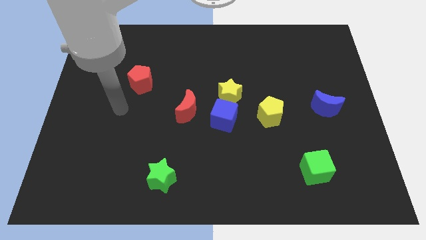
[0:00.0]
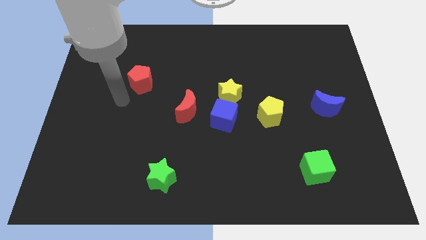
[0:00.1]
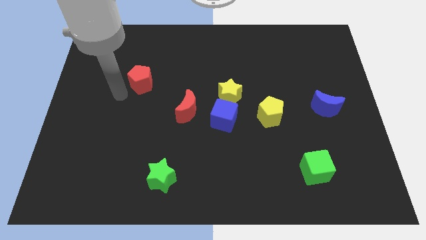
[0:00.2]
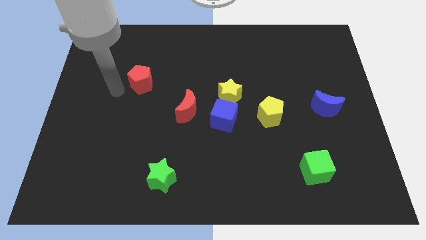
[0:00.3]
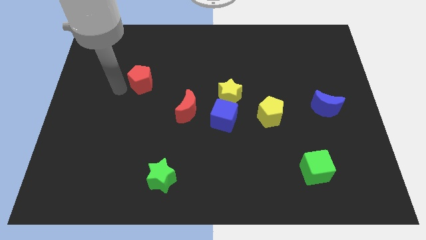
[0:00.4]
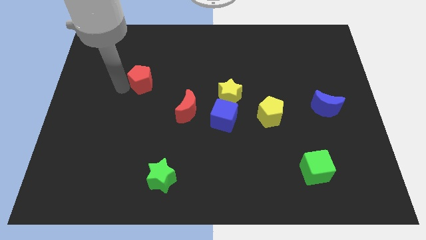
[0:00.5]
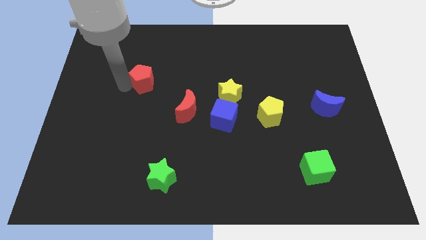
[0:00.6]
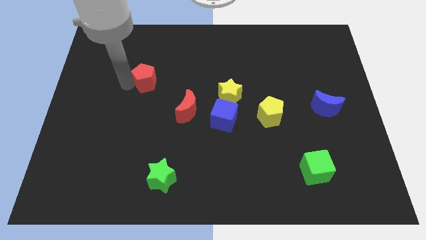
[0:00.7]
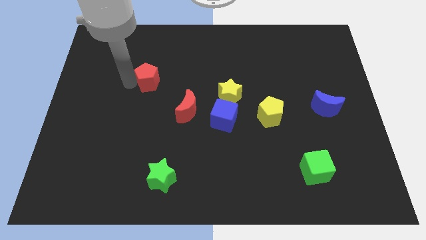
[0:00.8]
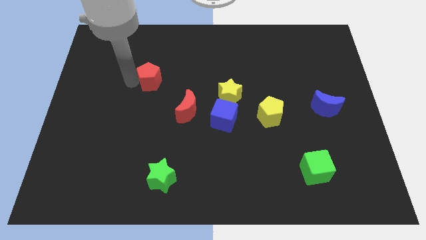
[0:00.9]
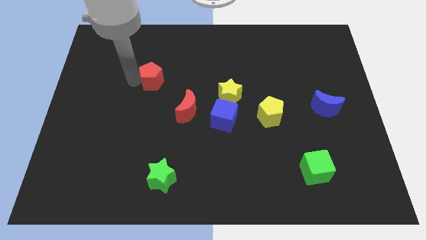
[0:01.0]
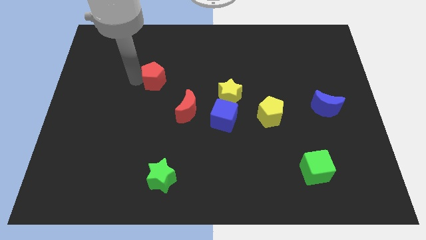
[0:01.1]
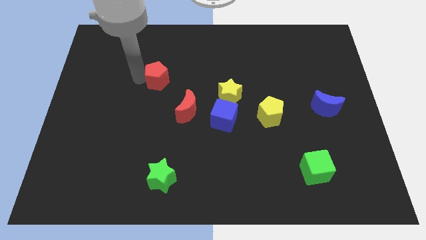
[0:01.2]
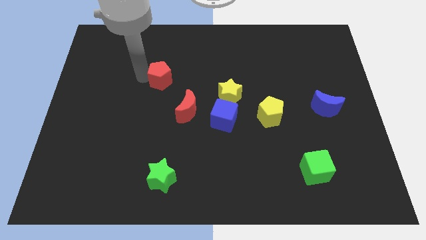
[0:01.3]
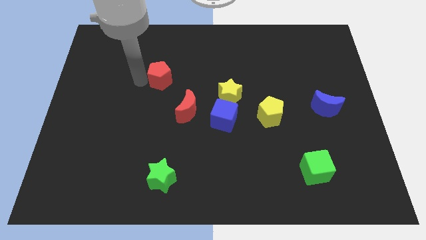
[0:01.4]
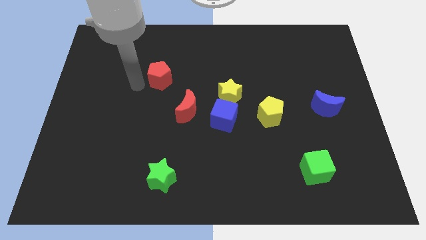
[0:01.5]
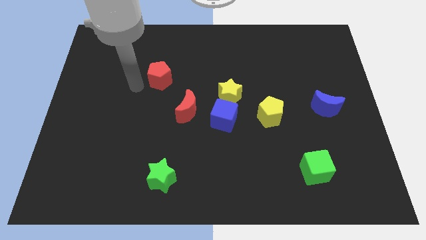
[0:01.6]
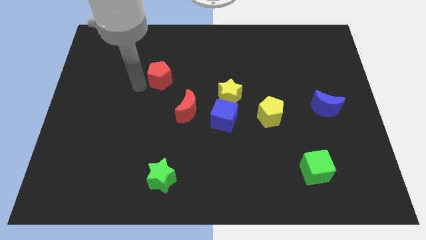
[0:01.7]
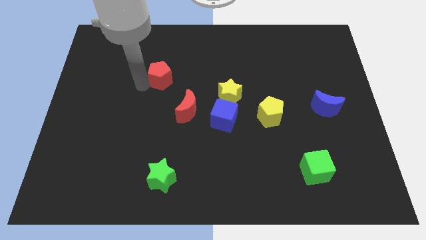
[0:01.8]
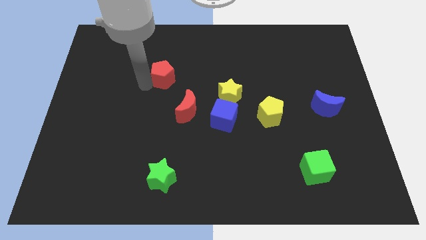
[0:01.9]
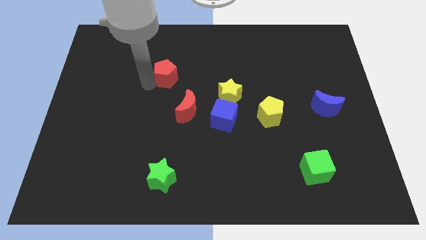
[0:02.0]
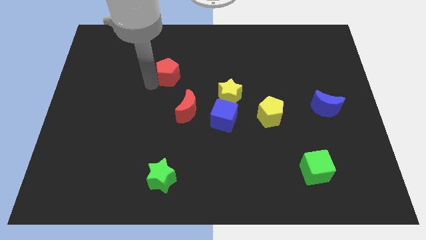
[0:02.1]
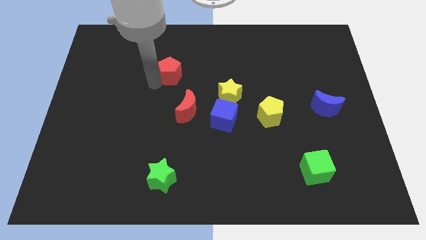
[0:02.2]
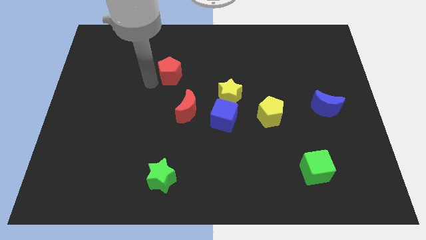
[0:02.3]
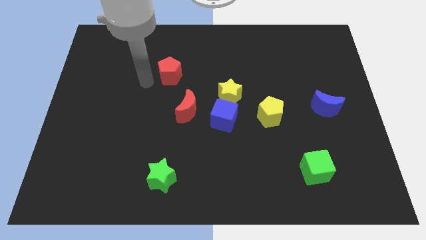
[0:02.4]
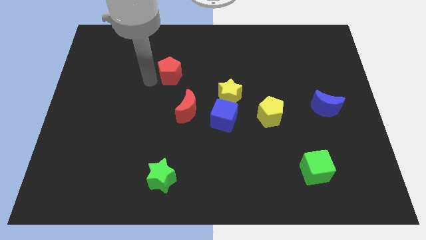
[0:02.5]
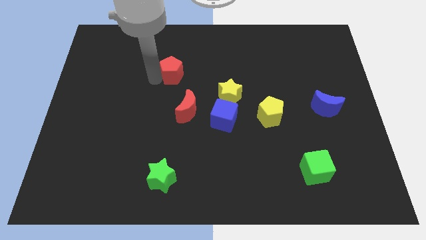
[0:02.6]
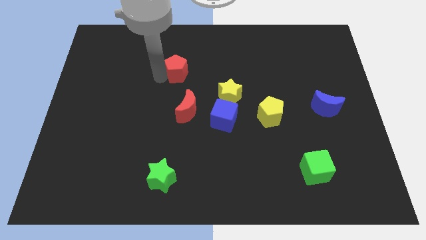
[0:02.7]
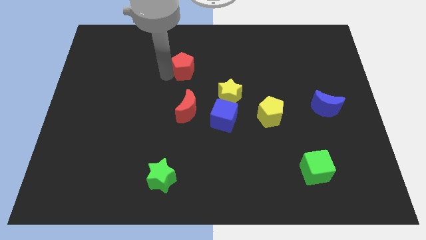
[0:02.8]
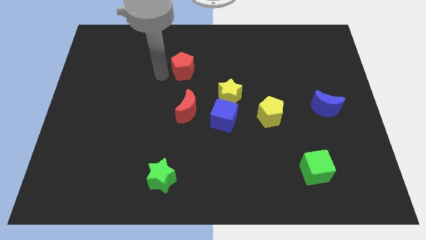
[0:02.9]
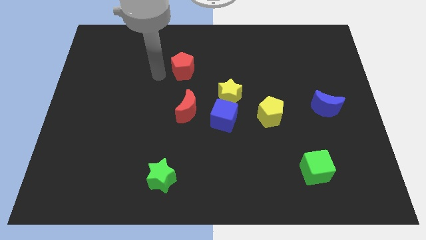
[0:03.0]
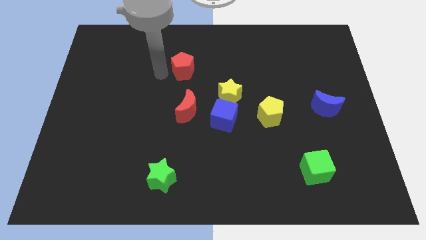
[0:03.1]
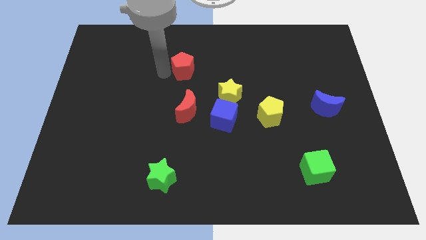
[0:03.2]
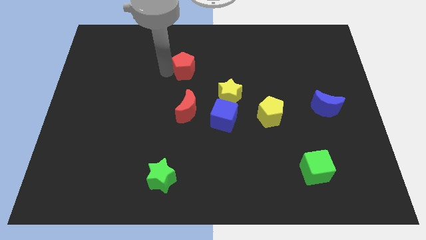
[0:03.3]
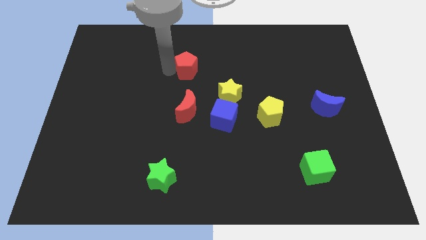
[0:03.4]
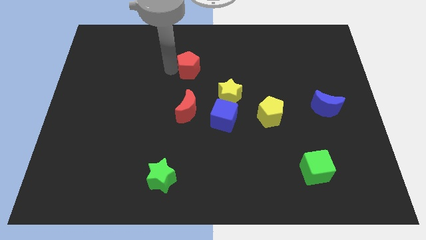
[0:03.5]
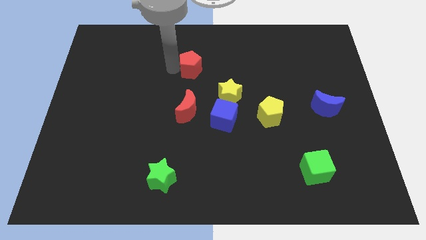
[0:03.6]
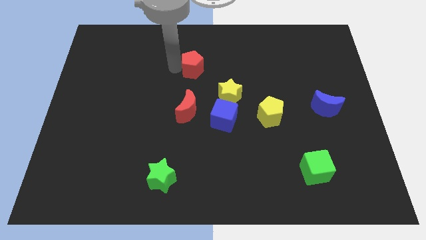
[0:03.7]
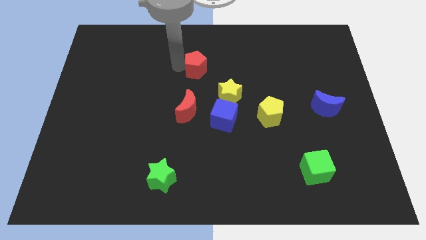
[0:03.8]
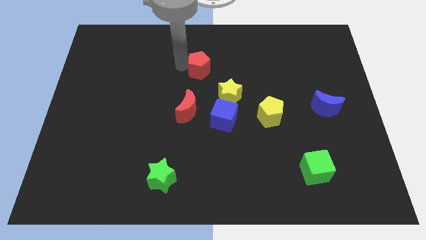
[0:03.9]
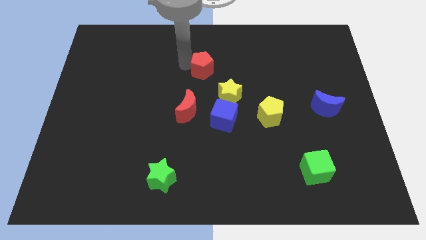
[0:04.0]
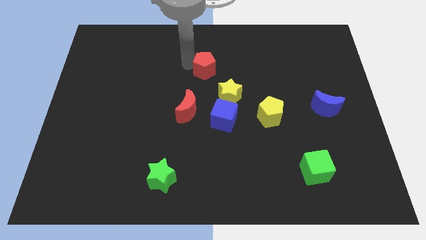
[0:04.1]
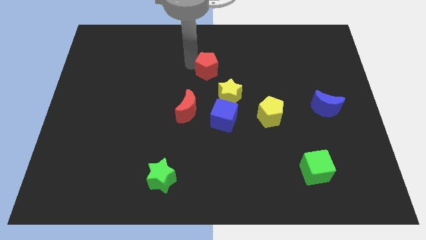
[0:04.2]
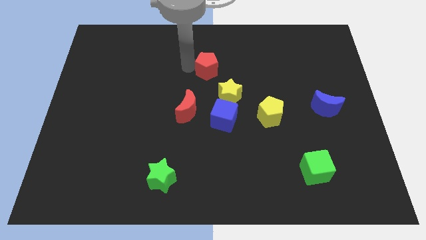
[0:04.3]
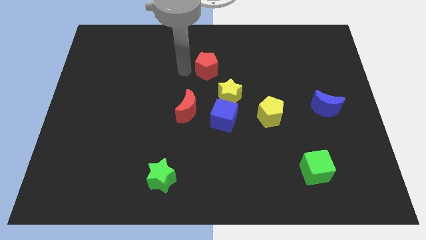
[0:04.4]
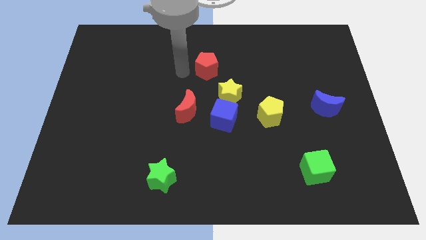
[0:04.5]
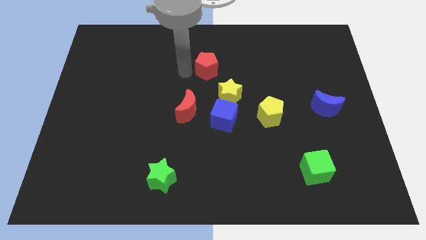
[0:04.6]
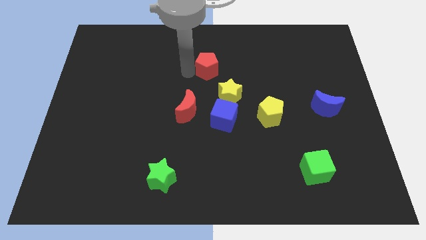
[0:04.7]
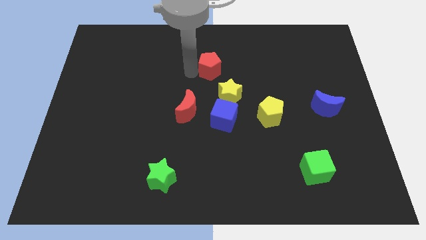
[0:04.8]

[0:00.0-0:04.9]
slide the red pentagon to the top of the yellow star

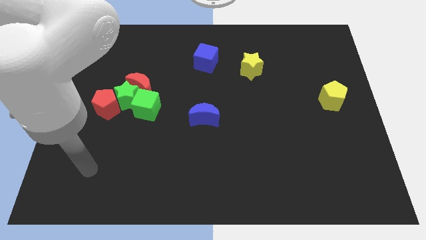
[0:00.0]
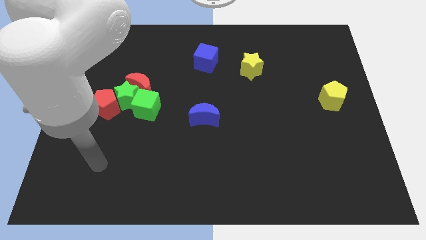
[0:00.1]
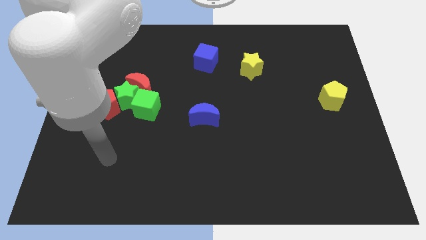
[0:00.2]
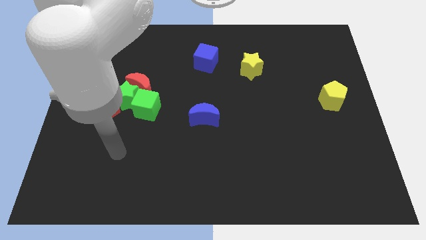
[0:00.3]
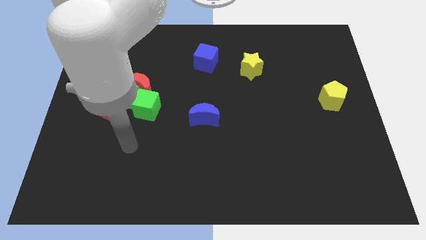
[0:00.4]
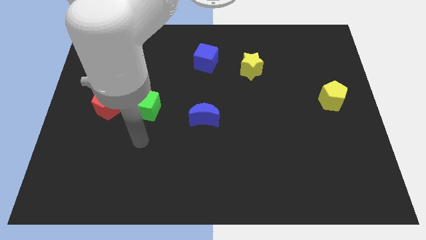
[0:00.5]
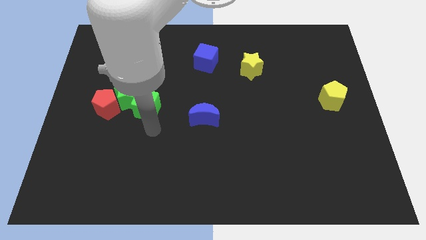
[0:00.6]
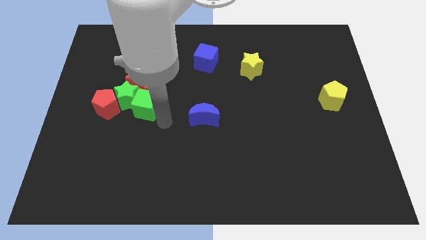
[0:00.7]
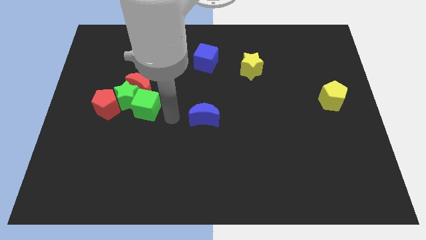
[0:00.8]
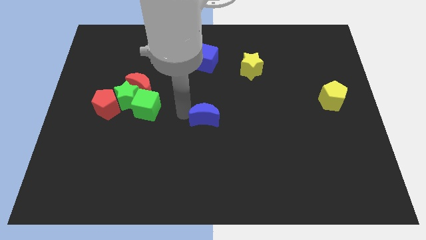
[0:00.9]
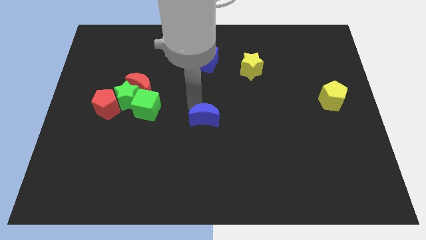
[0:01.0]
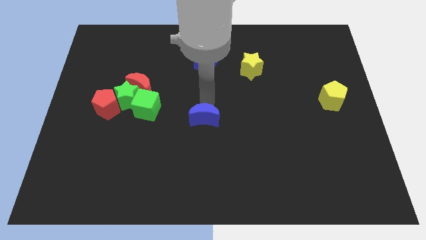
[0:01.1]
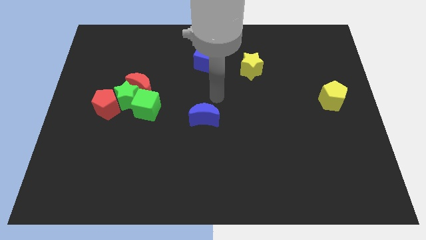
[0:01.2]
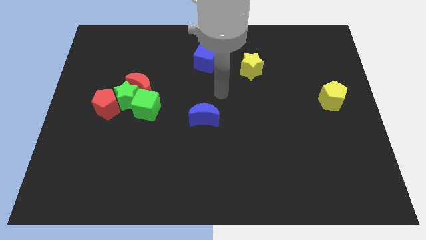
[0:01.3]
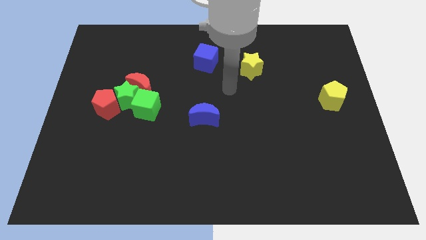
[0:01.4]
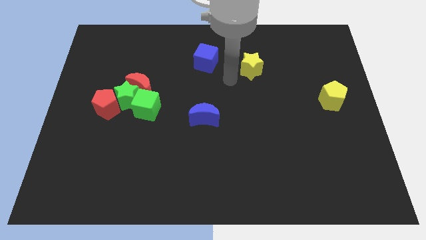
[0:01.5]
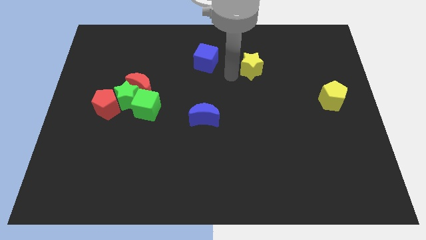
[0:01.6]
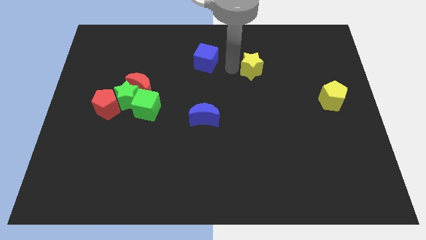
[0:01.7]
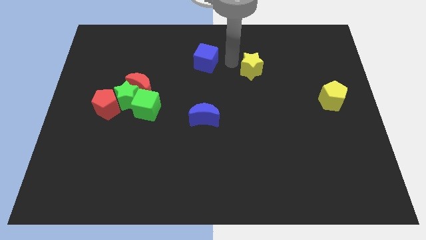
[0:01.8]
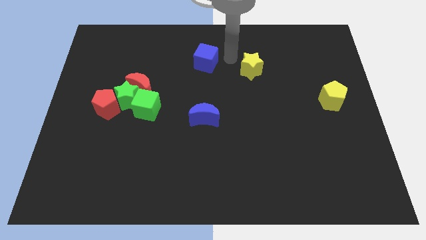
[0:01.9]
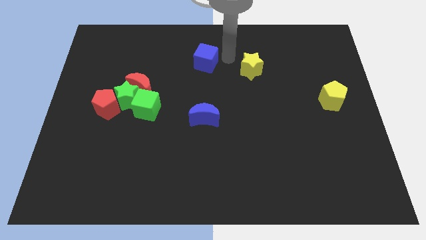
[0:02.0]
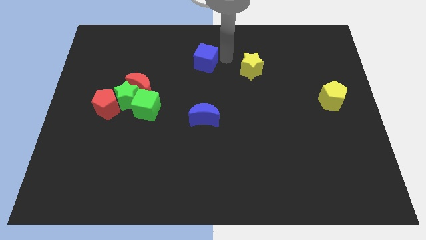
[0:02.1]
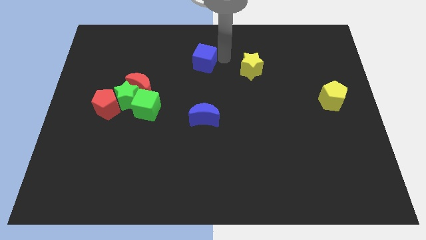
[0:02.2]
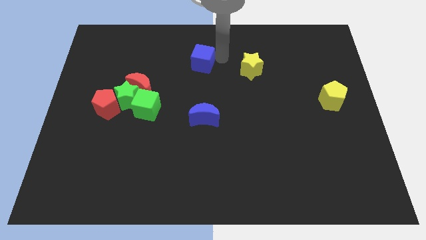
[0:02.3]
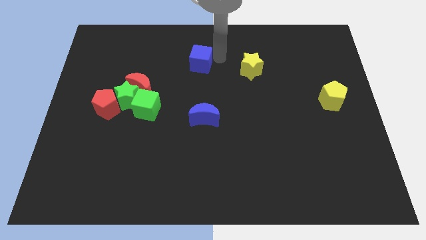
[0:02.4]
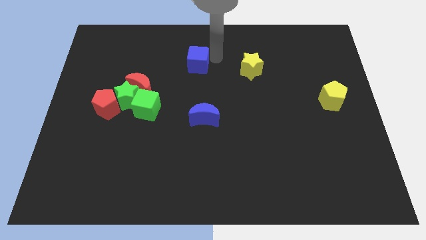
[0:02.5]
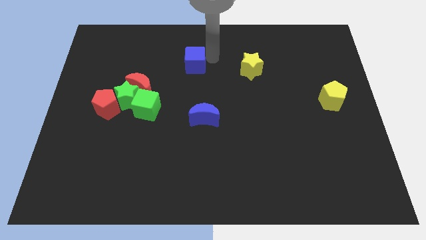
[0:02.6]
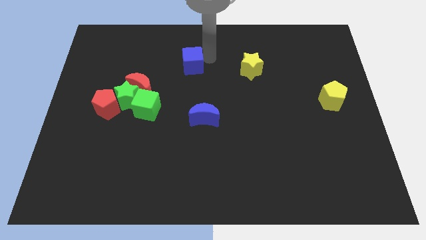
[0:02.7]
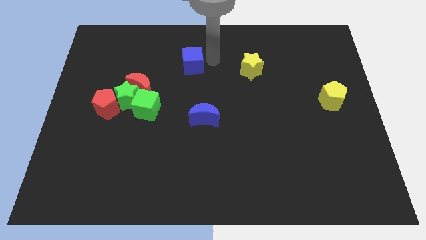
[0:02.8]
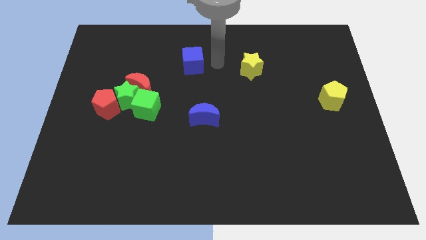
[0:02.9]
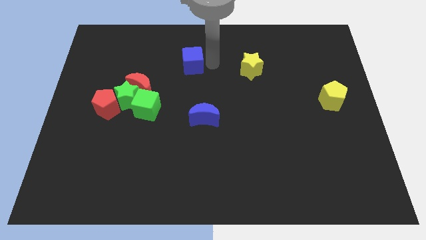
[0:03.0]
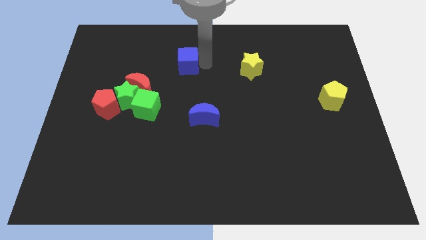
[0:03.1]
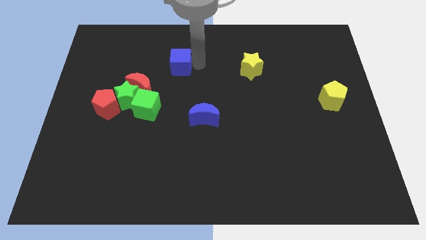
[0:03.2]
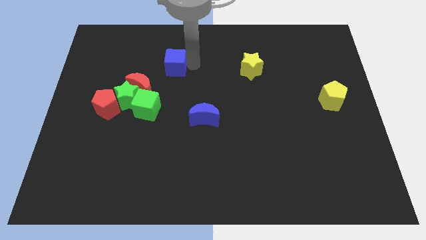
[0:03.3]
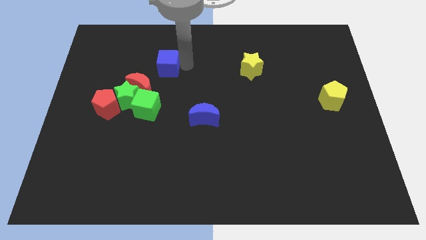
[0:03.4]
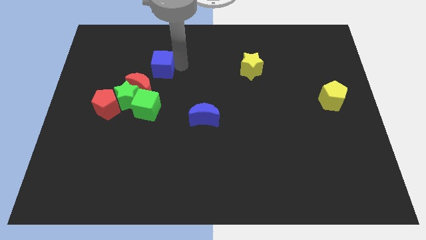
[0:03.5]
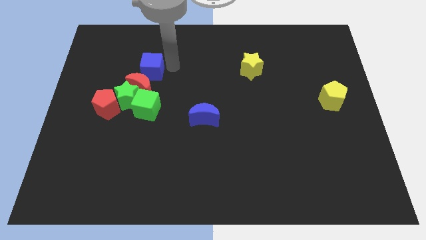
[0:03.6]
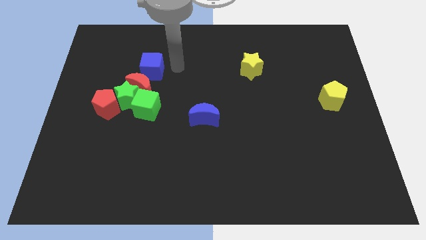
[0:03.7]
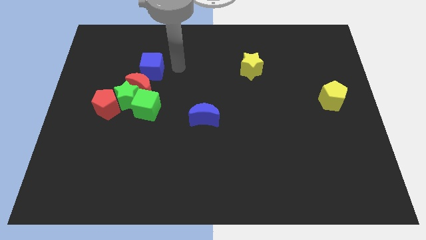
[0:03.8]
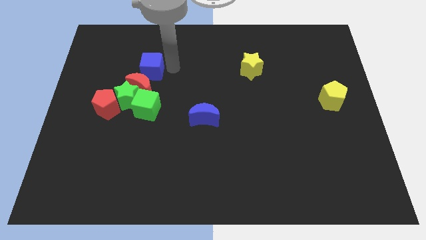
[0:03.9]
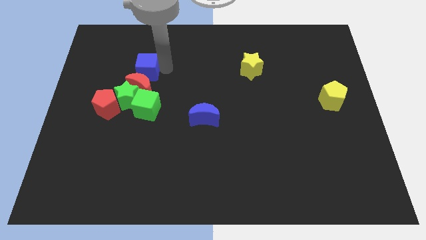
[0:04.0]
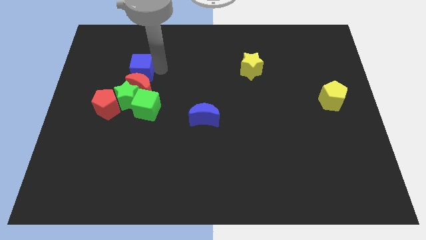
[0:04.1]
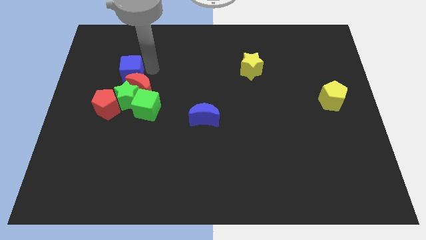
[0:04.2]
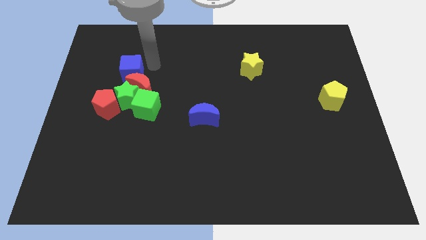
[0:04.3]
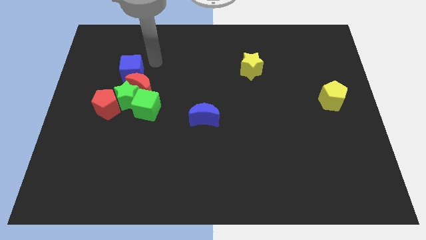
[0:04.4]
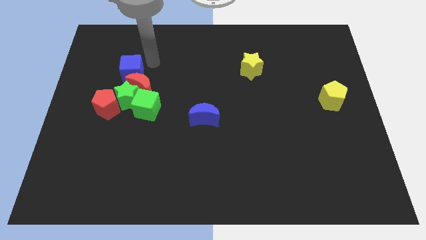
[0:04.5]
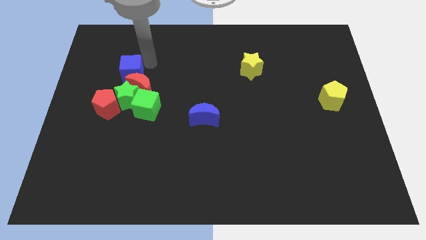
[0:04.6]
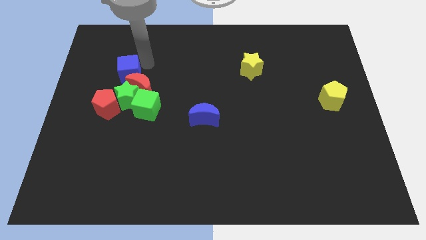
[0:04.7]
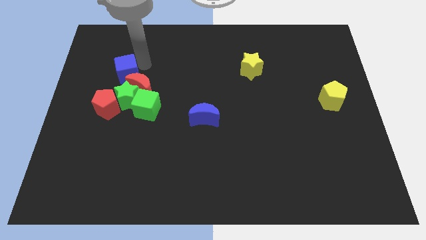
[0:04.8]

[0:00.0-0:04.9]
move the blue cube diagonally up and to the left of the green star
